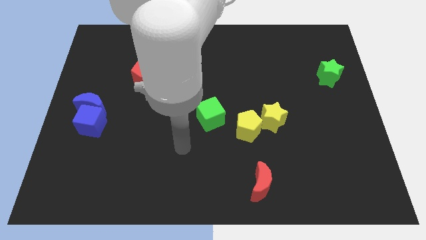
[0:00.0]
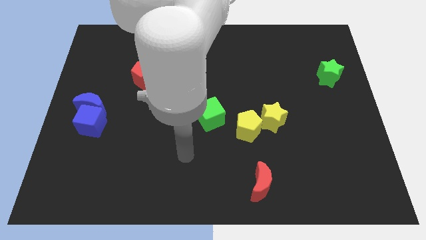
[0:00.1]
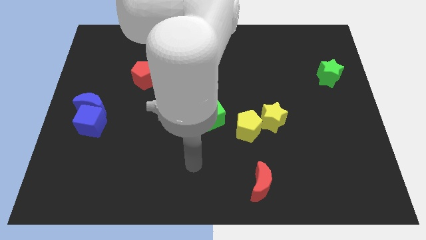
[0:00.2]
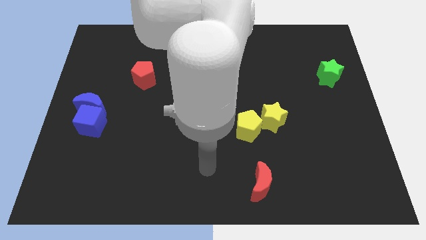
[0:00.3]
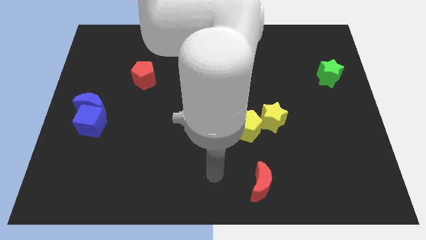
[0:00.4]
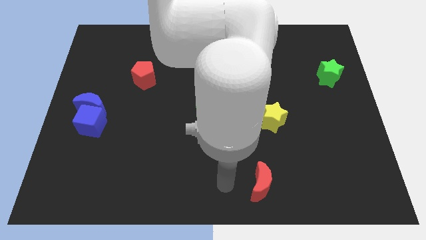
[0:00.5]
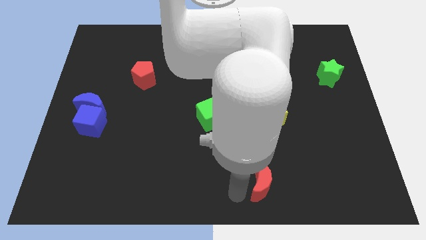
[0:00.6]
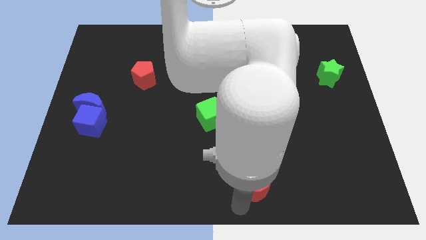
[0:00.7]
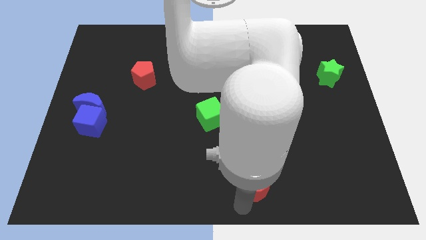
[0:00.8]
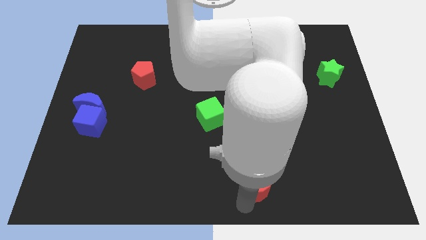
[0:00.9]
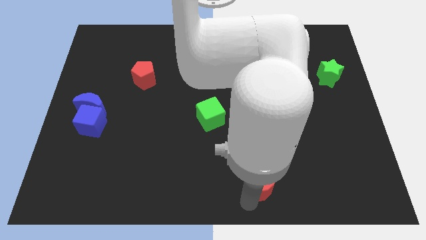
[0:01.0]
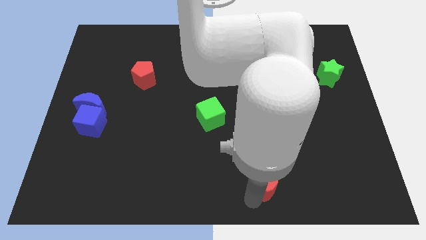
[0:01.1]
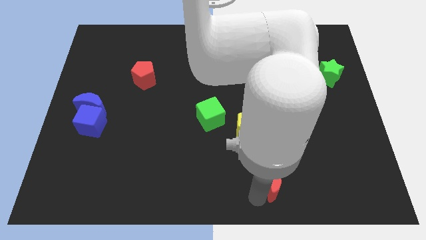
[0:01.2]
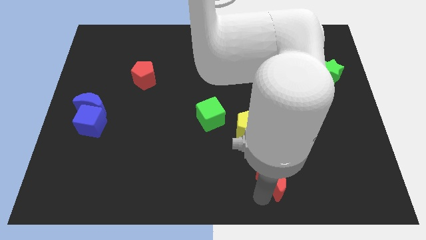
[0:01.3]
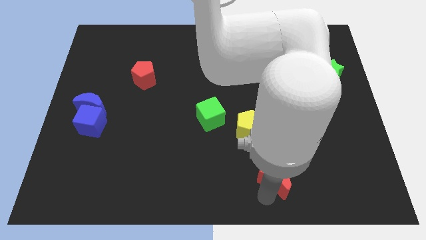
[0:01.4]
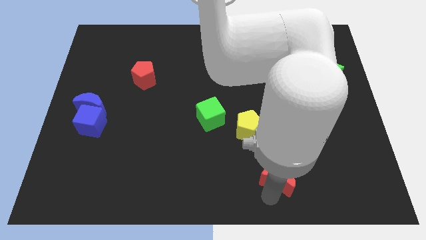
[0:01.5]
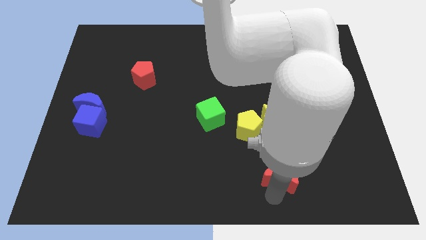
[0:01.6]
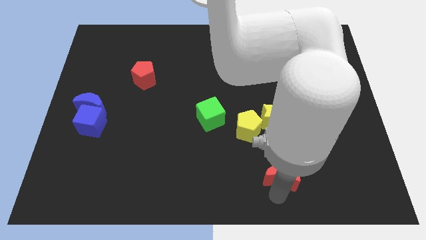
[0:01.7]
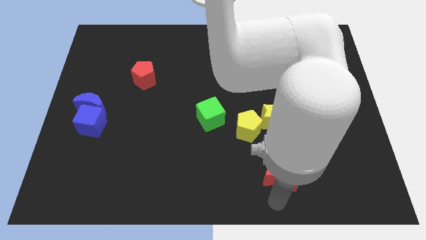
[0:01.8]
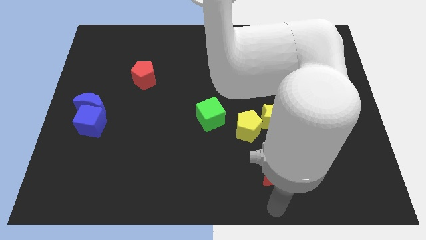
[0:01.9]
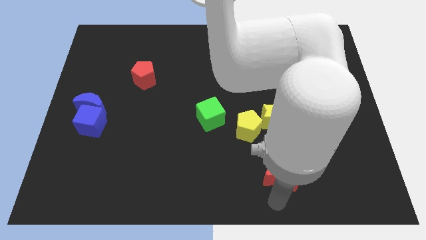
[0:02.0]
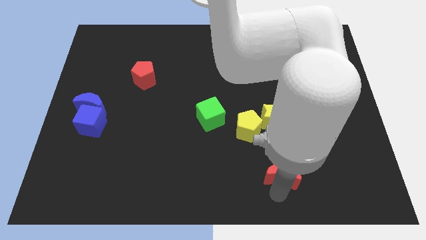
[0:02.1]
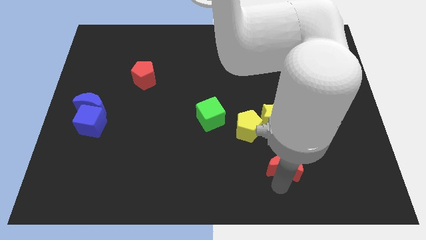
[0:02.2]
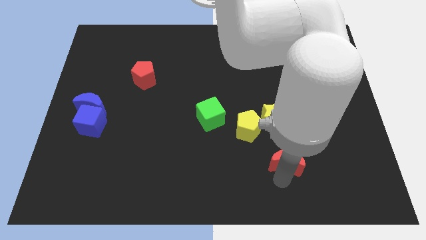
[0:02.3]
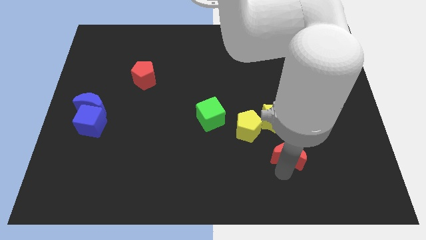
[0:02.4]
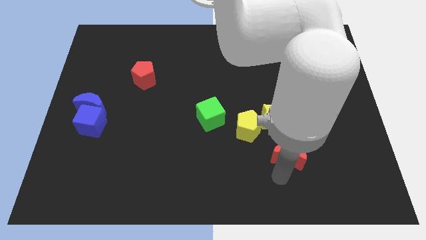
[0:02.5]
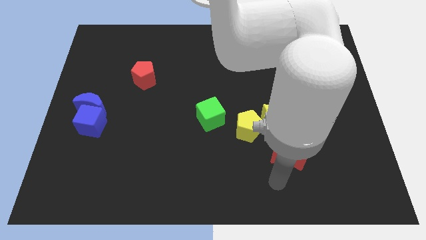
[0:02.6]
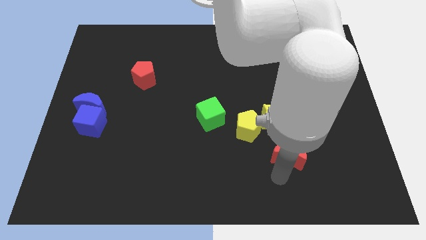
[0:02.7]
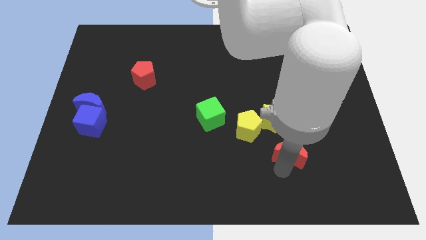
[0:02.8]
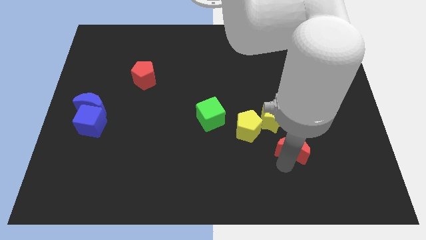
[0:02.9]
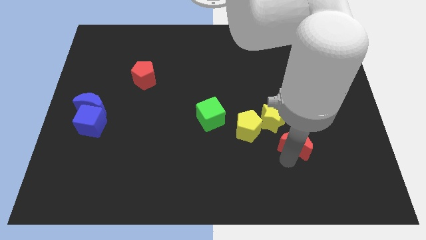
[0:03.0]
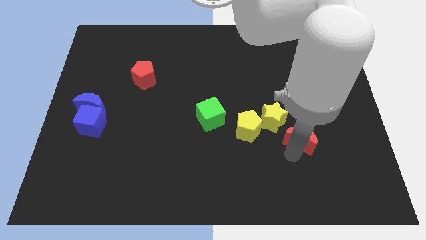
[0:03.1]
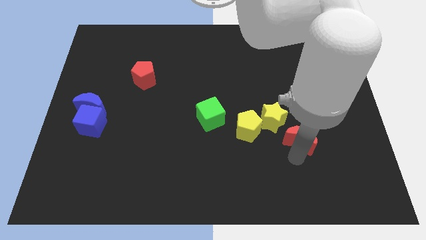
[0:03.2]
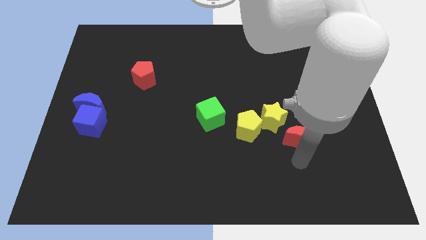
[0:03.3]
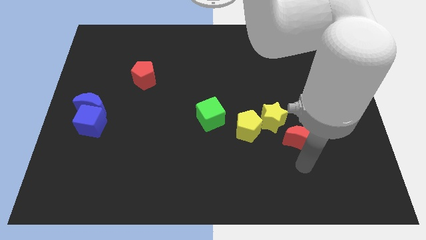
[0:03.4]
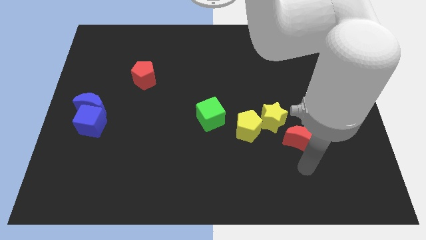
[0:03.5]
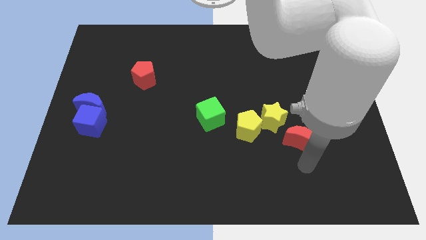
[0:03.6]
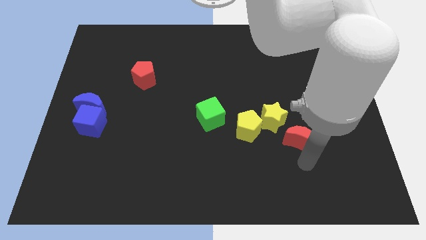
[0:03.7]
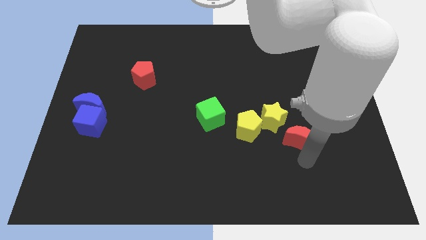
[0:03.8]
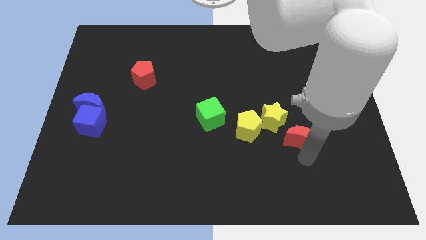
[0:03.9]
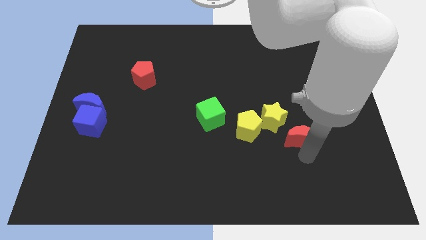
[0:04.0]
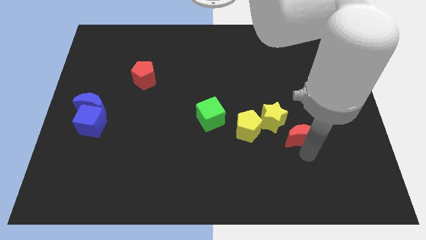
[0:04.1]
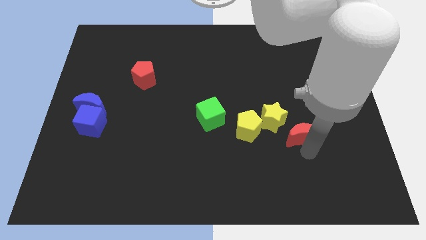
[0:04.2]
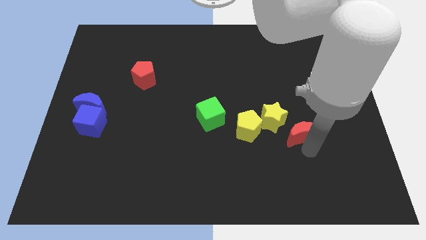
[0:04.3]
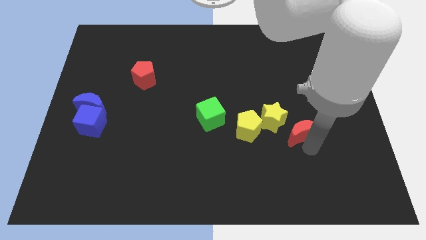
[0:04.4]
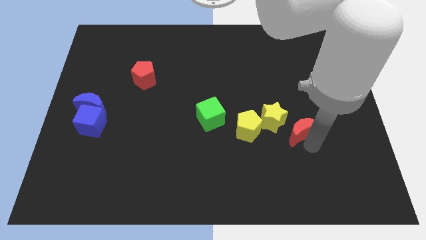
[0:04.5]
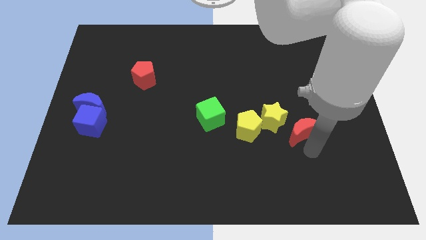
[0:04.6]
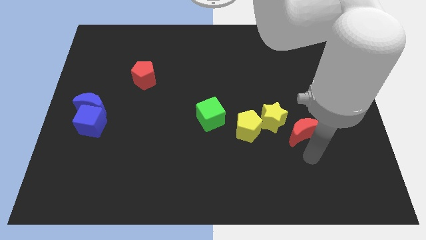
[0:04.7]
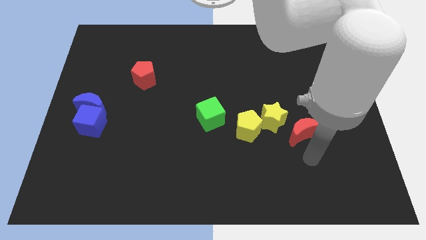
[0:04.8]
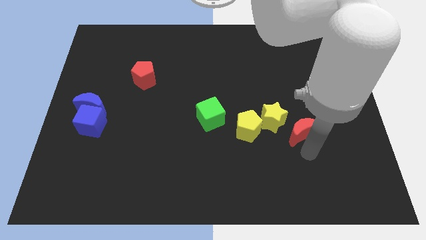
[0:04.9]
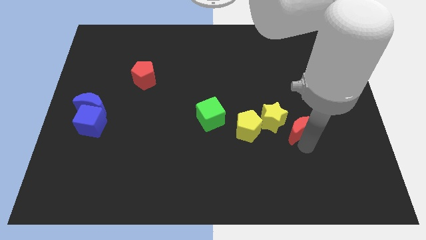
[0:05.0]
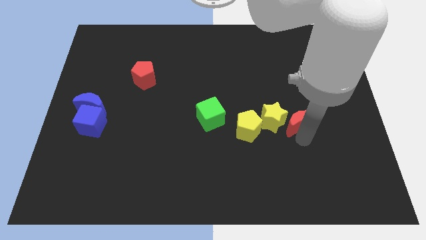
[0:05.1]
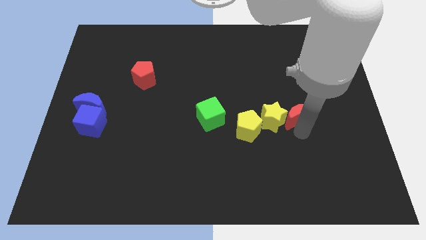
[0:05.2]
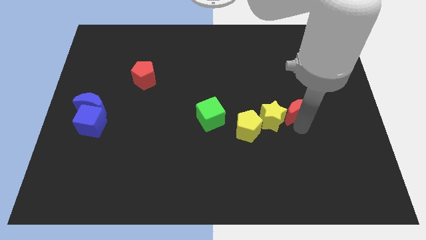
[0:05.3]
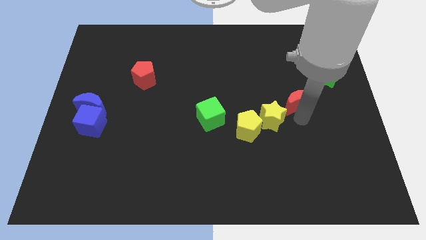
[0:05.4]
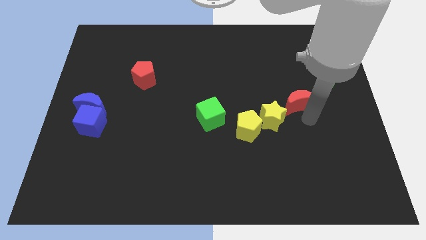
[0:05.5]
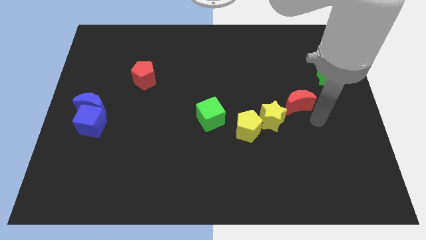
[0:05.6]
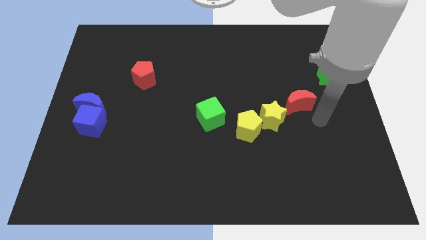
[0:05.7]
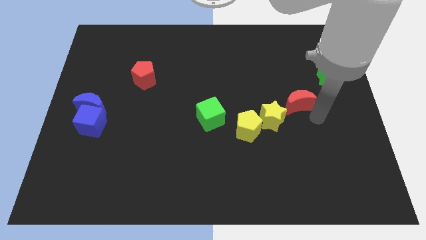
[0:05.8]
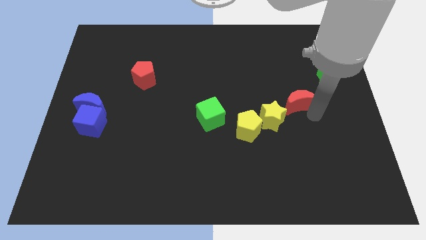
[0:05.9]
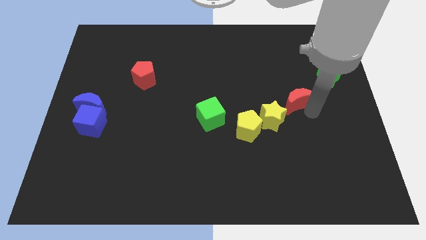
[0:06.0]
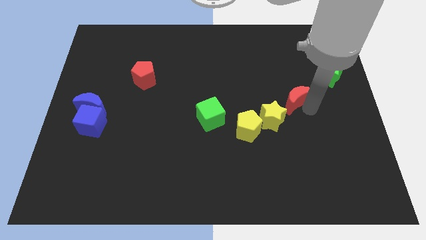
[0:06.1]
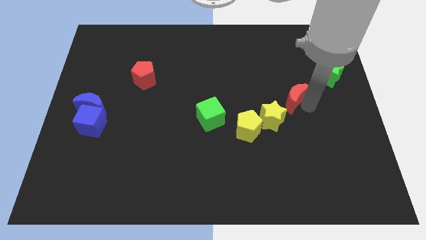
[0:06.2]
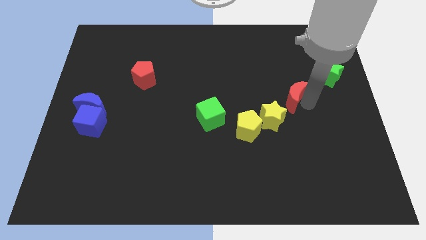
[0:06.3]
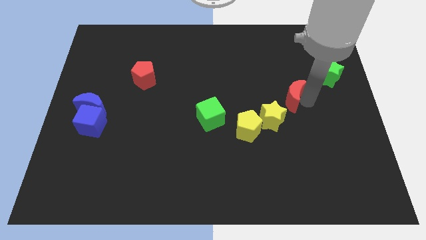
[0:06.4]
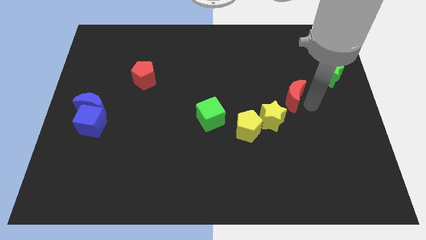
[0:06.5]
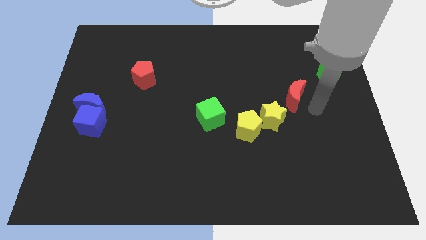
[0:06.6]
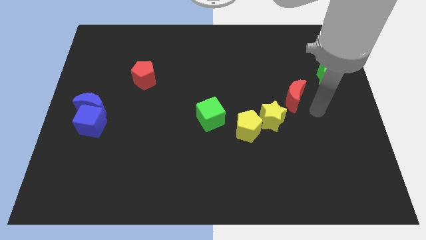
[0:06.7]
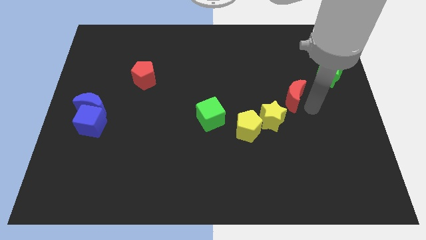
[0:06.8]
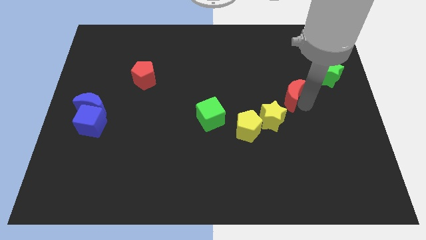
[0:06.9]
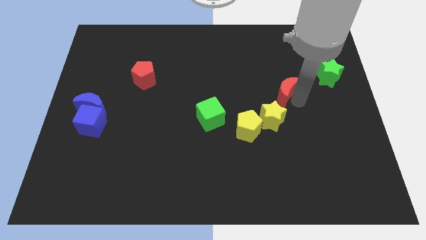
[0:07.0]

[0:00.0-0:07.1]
slide the red moon above the yellow star
